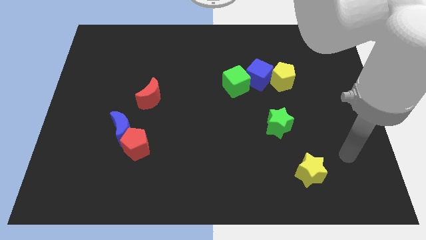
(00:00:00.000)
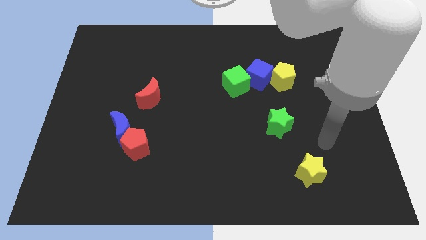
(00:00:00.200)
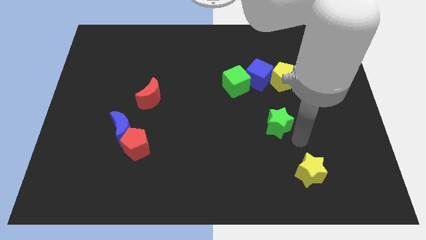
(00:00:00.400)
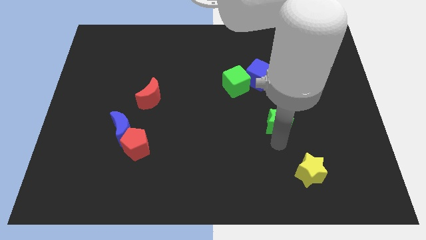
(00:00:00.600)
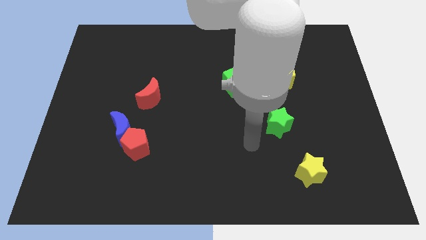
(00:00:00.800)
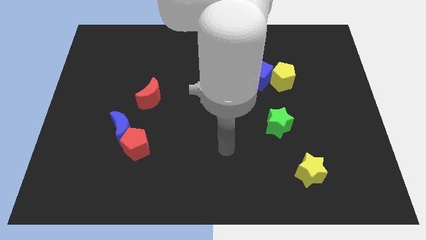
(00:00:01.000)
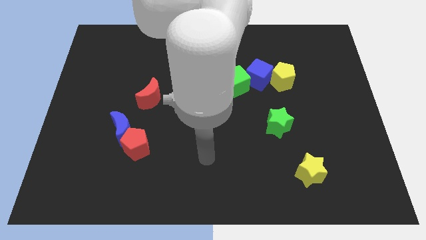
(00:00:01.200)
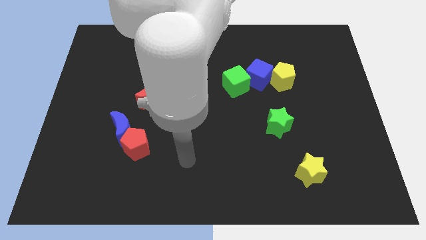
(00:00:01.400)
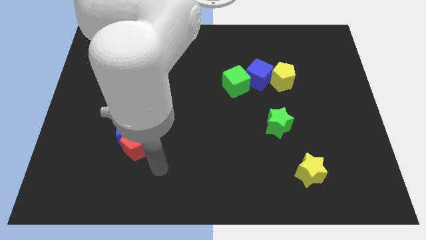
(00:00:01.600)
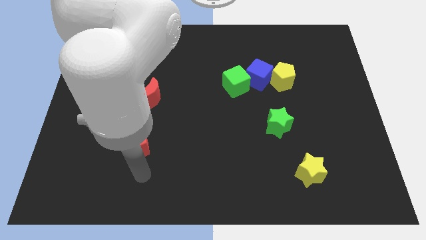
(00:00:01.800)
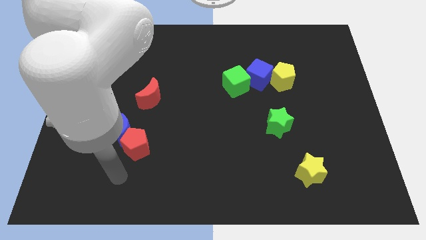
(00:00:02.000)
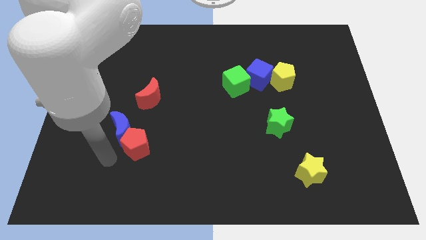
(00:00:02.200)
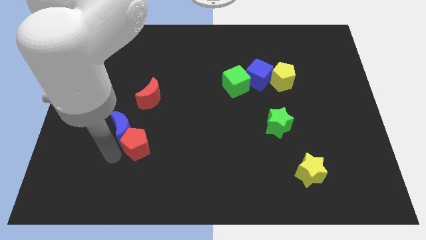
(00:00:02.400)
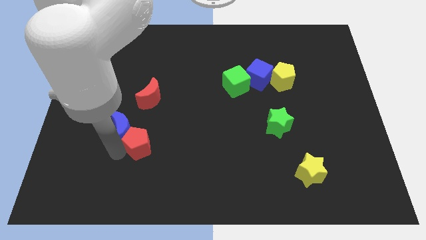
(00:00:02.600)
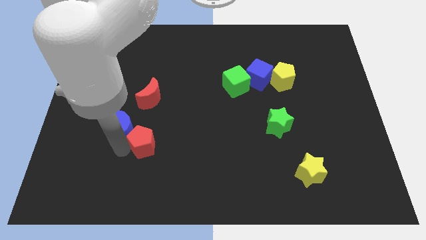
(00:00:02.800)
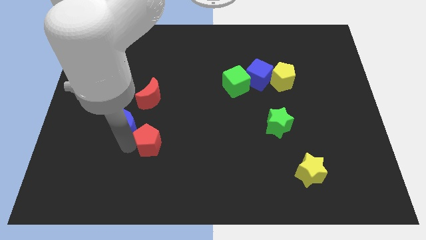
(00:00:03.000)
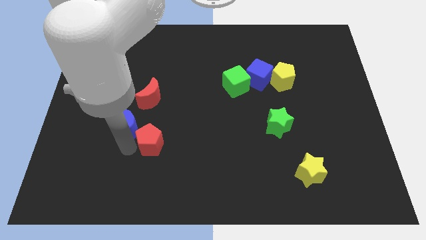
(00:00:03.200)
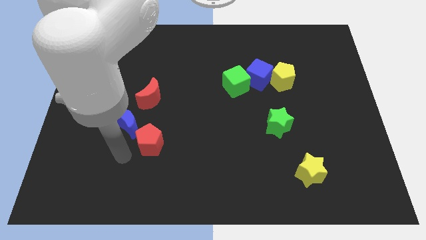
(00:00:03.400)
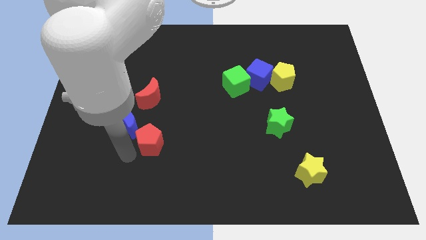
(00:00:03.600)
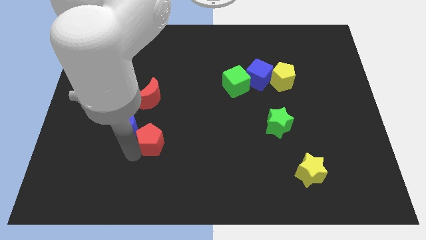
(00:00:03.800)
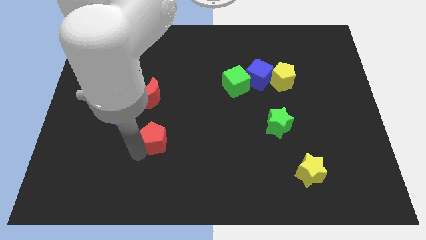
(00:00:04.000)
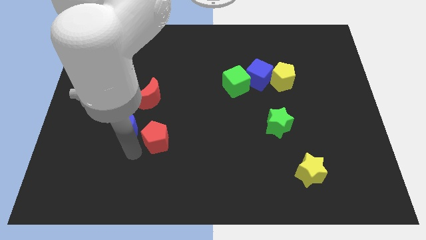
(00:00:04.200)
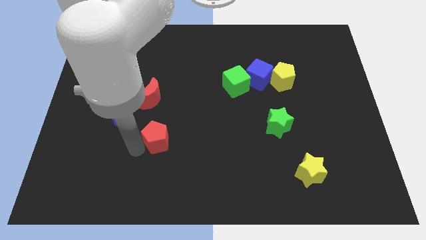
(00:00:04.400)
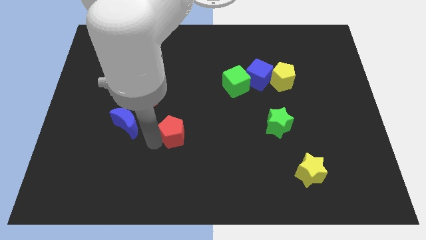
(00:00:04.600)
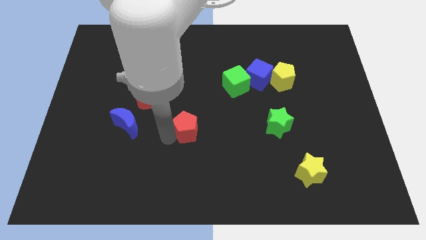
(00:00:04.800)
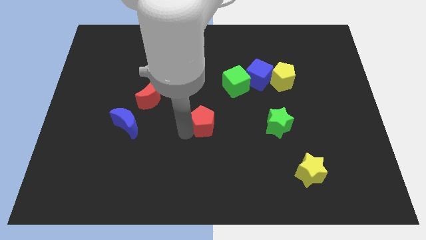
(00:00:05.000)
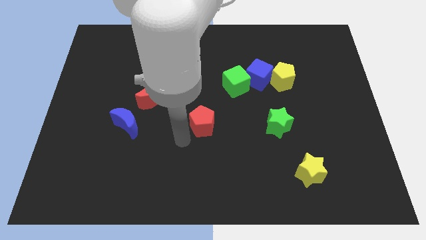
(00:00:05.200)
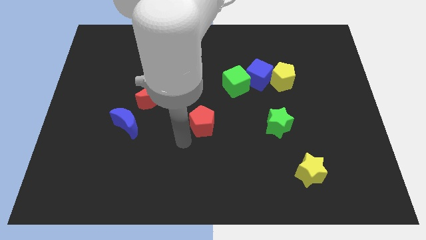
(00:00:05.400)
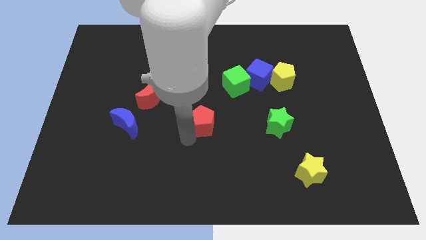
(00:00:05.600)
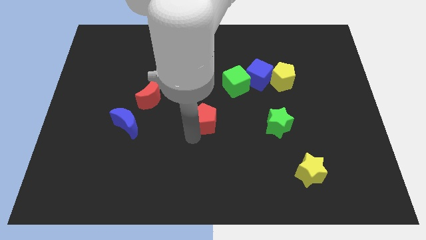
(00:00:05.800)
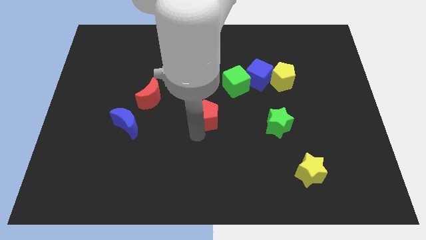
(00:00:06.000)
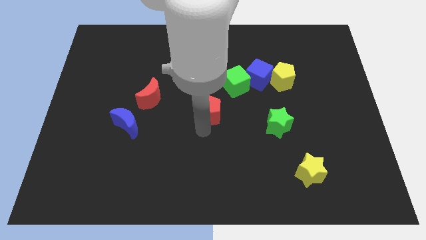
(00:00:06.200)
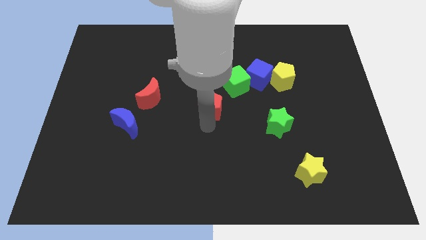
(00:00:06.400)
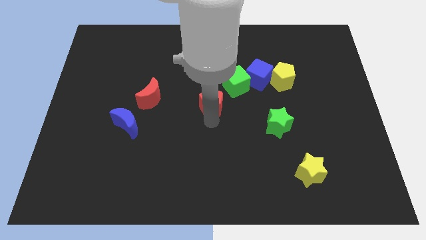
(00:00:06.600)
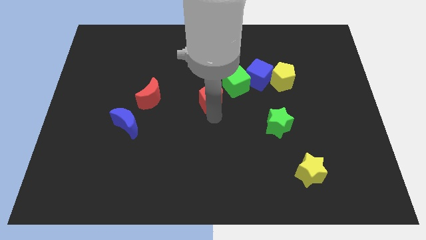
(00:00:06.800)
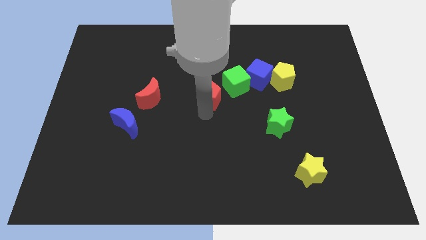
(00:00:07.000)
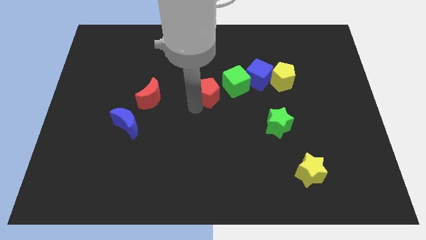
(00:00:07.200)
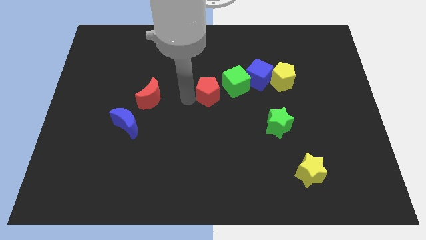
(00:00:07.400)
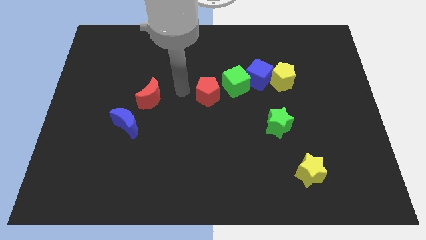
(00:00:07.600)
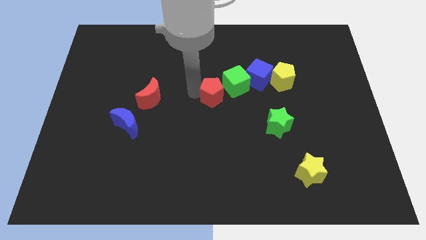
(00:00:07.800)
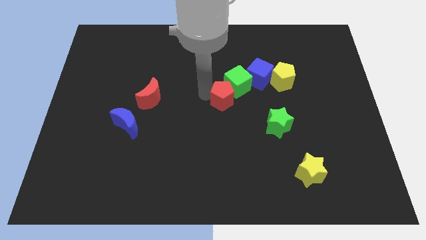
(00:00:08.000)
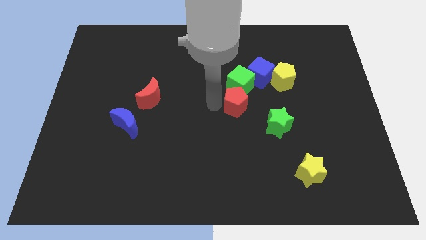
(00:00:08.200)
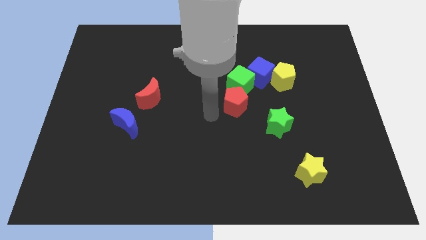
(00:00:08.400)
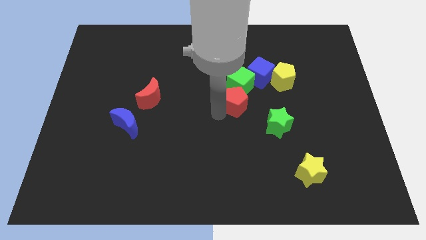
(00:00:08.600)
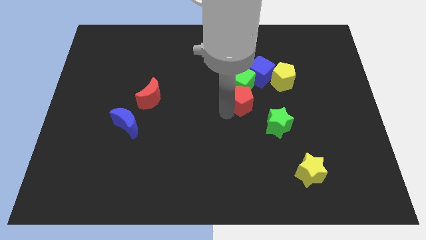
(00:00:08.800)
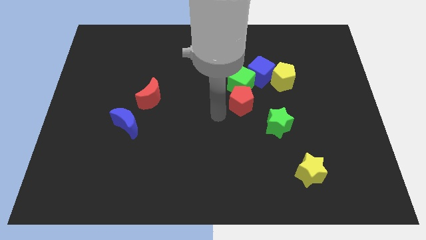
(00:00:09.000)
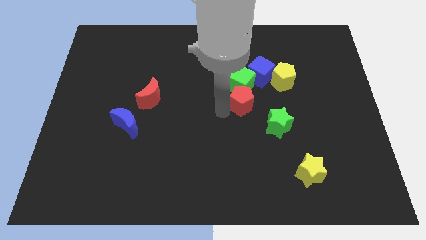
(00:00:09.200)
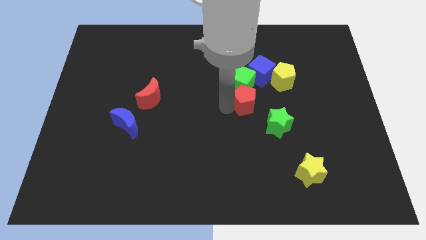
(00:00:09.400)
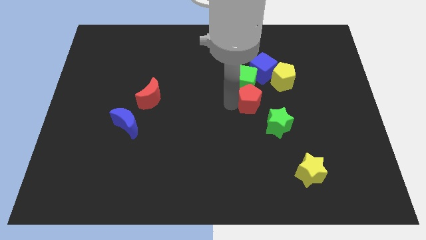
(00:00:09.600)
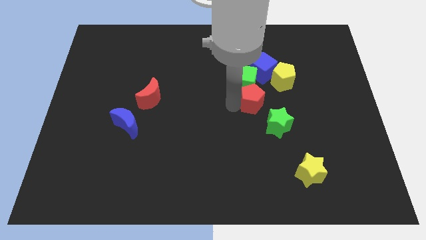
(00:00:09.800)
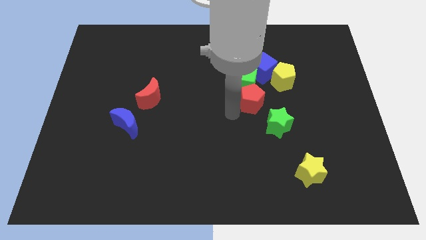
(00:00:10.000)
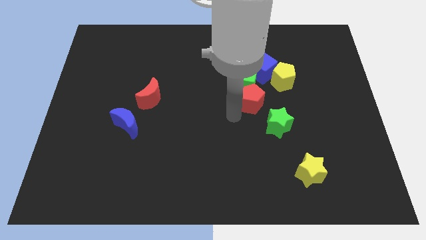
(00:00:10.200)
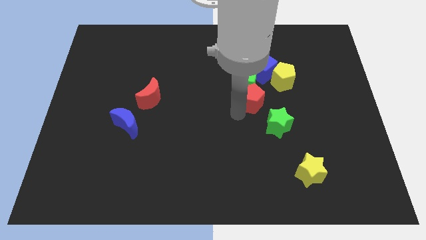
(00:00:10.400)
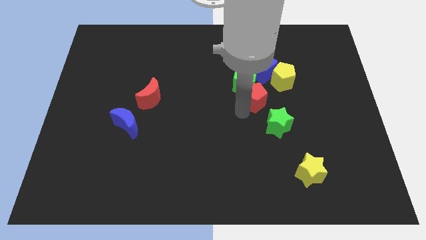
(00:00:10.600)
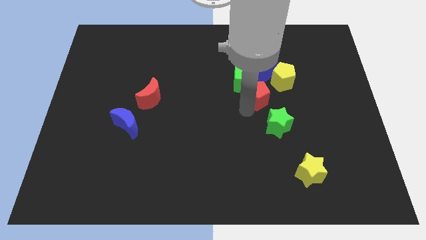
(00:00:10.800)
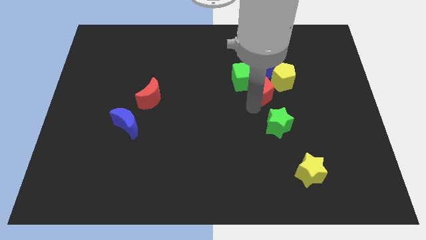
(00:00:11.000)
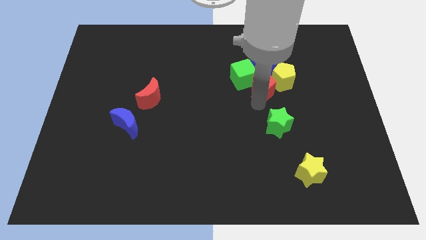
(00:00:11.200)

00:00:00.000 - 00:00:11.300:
push the red pentagon towards the yellow pentagon

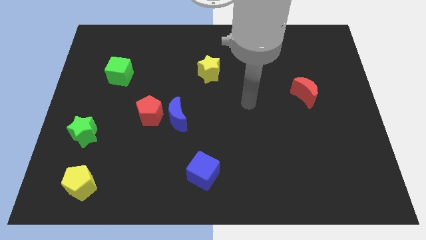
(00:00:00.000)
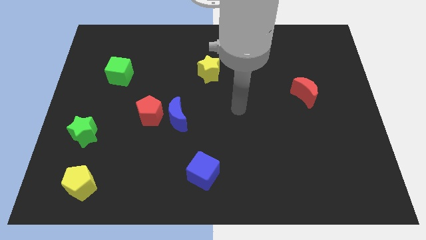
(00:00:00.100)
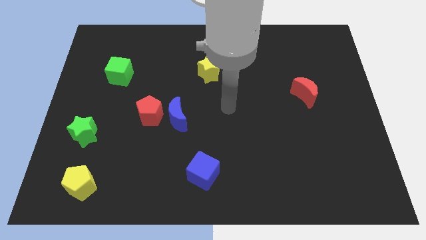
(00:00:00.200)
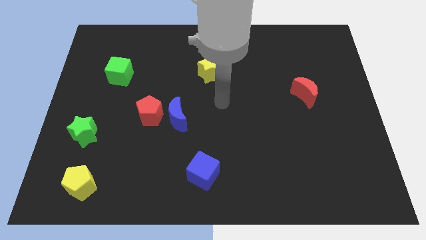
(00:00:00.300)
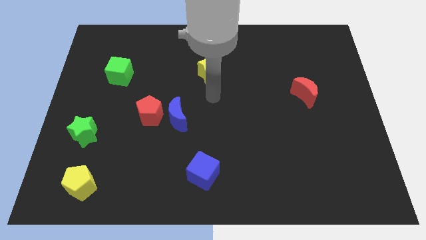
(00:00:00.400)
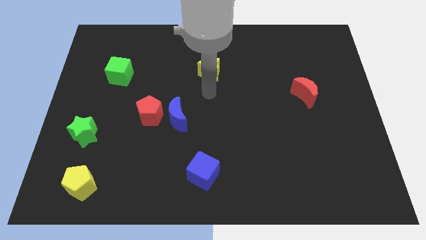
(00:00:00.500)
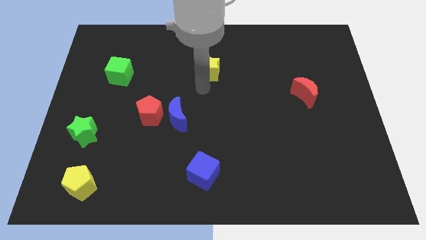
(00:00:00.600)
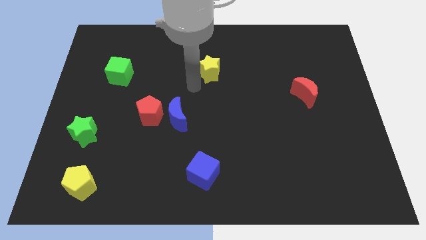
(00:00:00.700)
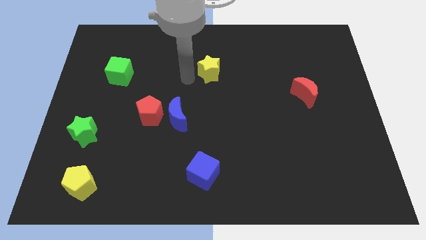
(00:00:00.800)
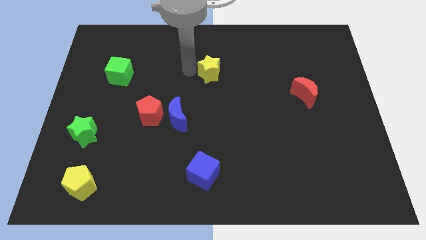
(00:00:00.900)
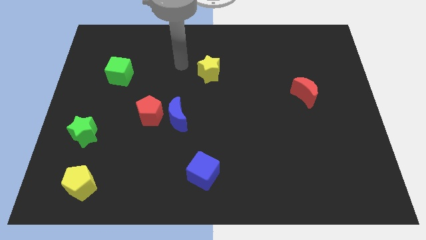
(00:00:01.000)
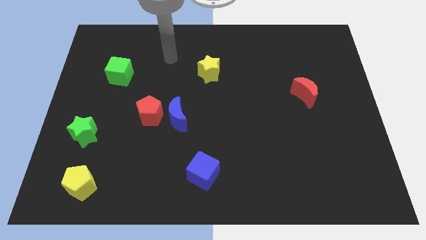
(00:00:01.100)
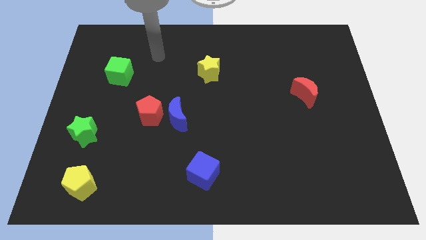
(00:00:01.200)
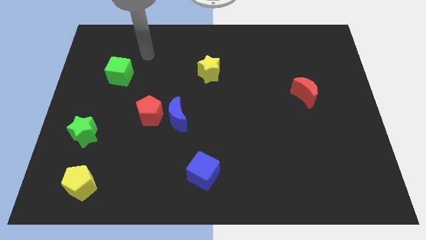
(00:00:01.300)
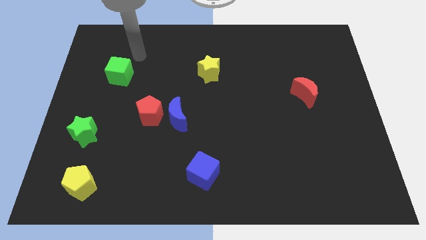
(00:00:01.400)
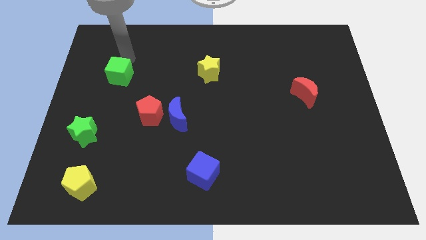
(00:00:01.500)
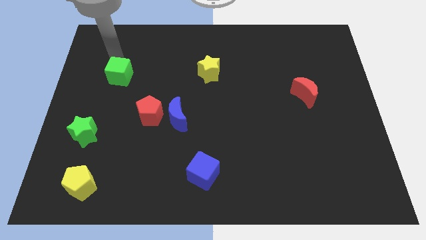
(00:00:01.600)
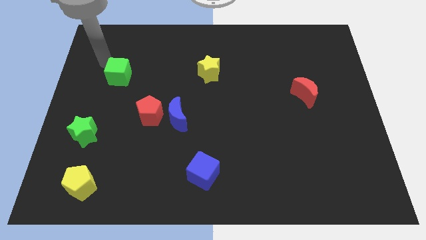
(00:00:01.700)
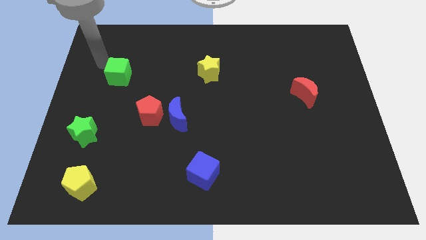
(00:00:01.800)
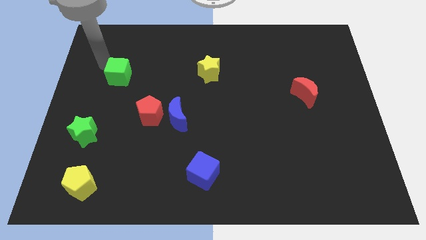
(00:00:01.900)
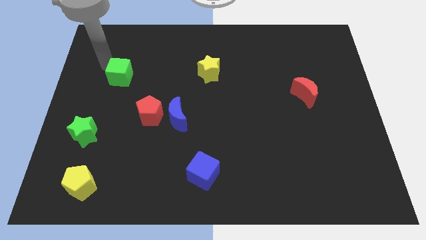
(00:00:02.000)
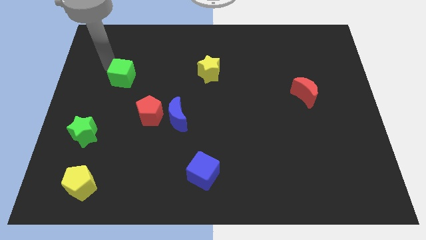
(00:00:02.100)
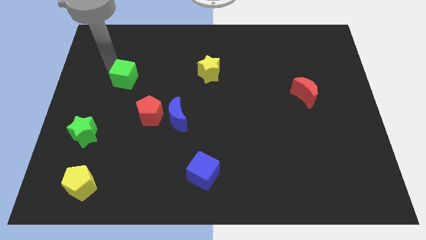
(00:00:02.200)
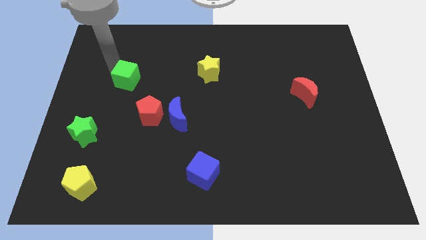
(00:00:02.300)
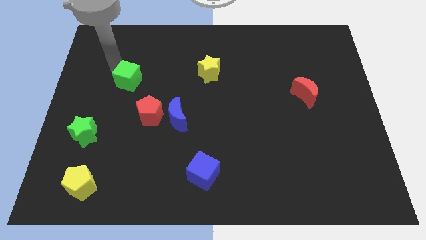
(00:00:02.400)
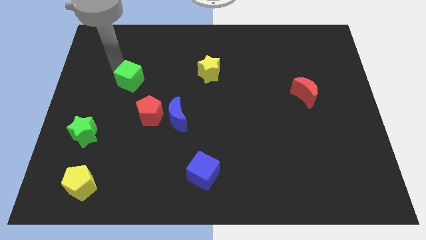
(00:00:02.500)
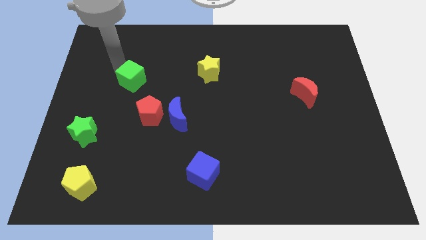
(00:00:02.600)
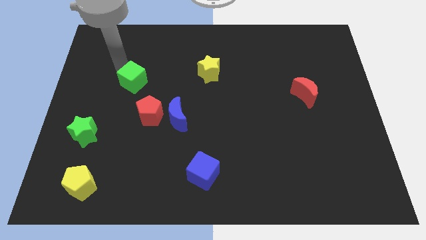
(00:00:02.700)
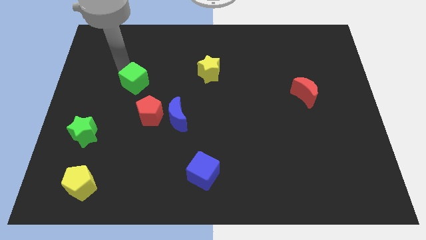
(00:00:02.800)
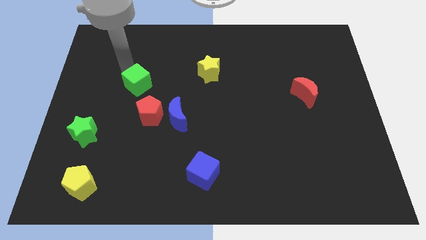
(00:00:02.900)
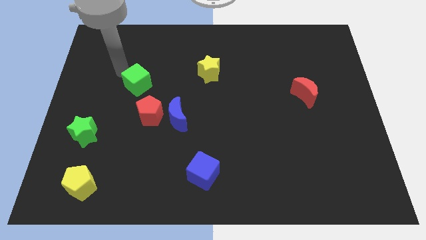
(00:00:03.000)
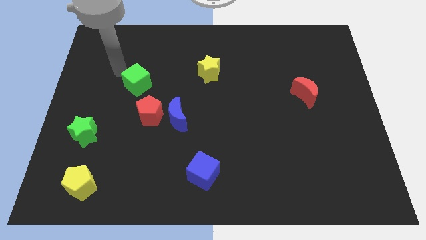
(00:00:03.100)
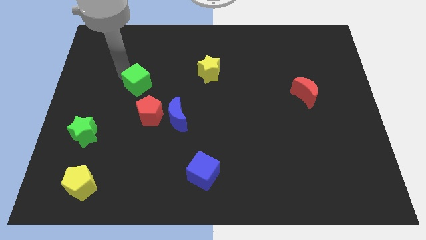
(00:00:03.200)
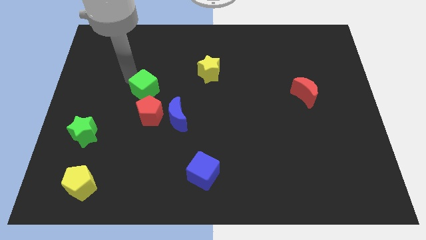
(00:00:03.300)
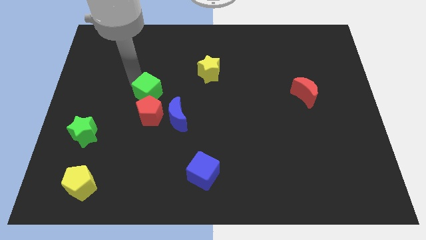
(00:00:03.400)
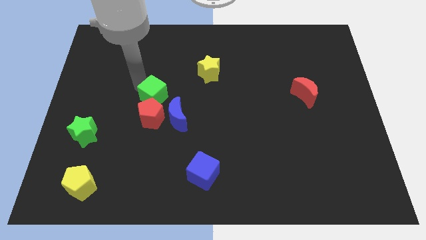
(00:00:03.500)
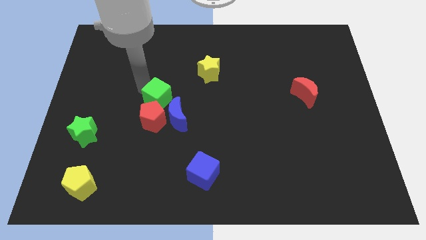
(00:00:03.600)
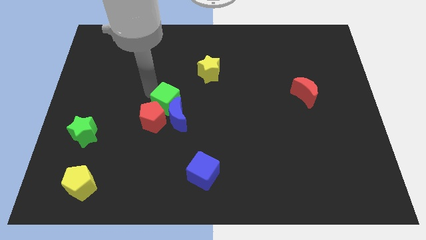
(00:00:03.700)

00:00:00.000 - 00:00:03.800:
put the green cube to the blue moon
